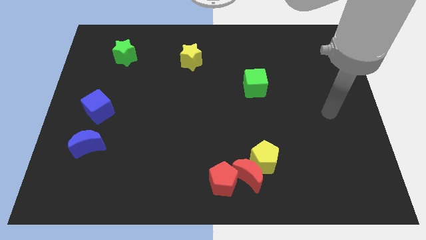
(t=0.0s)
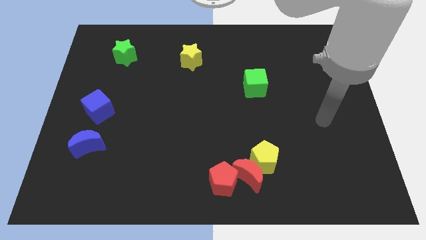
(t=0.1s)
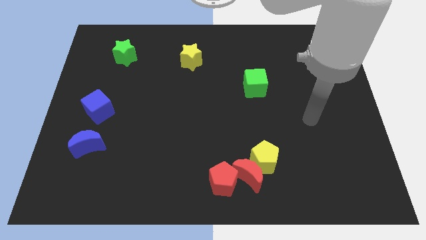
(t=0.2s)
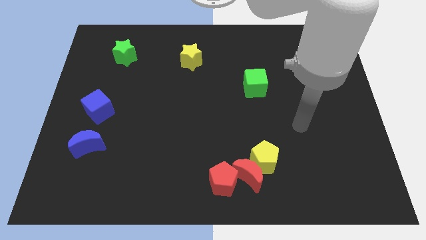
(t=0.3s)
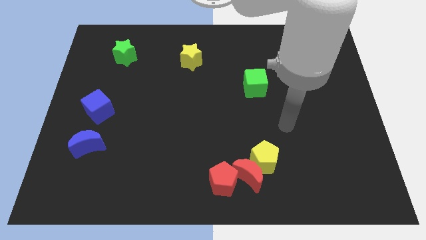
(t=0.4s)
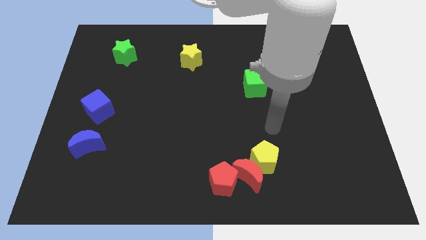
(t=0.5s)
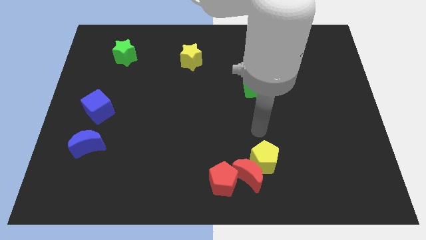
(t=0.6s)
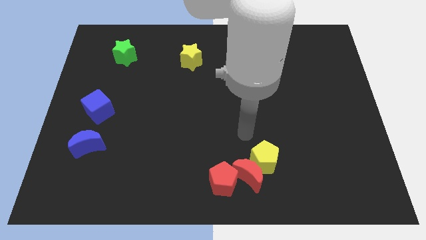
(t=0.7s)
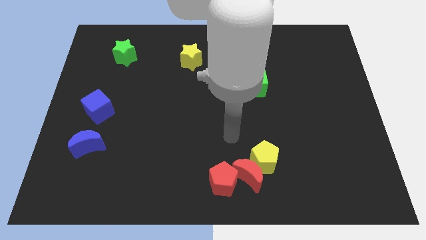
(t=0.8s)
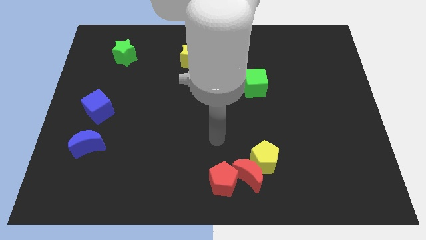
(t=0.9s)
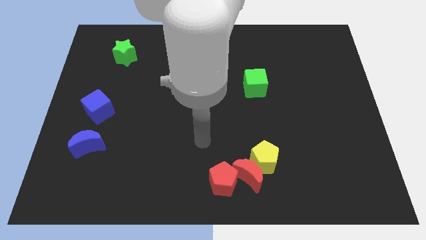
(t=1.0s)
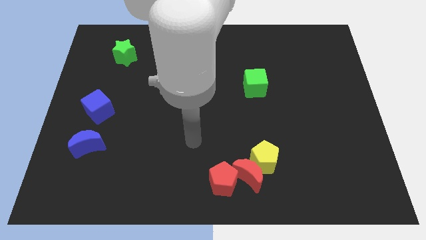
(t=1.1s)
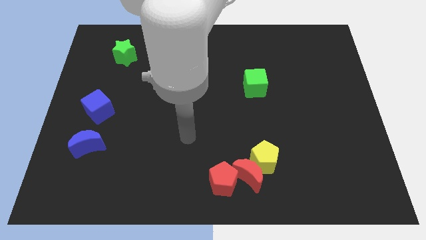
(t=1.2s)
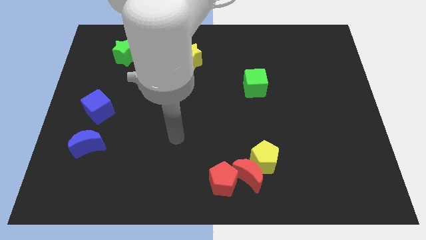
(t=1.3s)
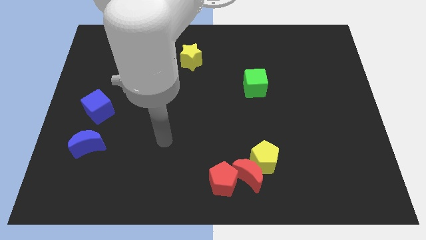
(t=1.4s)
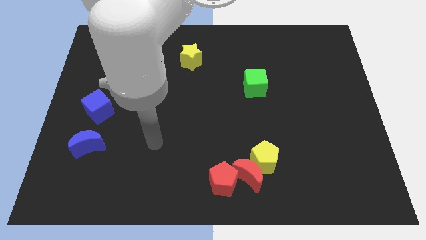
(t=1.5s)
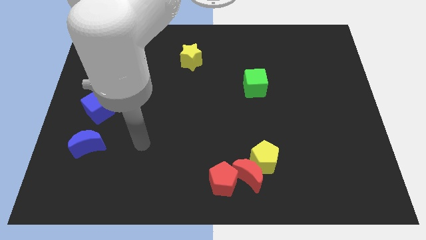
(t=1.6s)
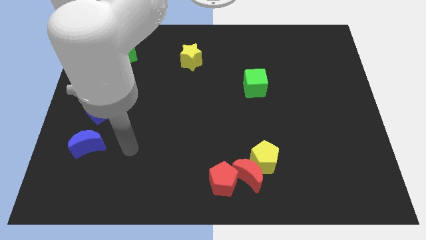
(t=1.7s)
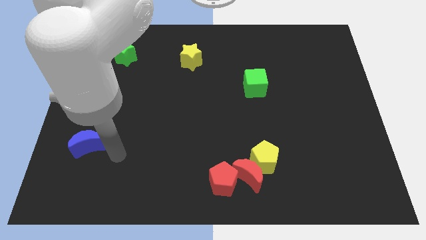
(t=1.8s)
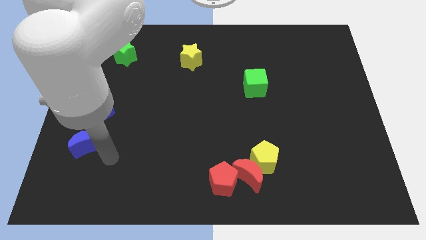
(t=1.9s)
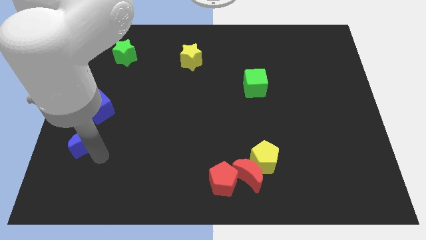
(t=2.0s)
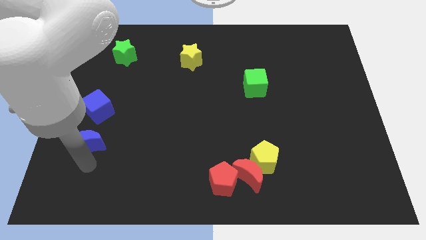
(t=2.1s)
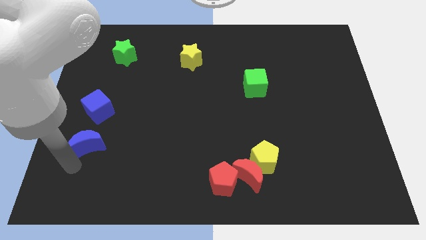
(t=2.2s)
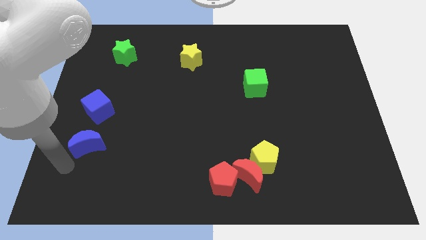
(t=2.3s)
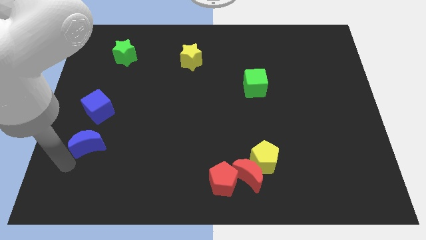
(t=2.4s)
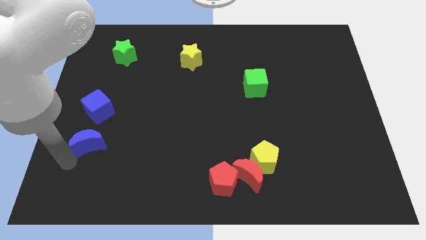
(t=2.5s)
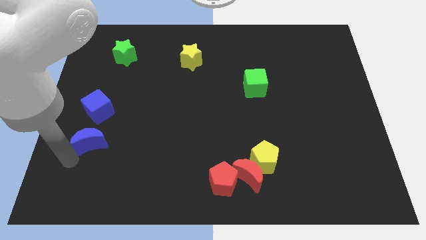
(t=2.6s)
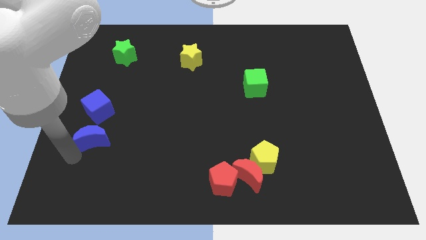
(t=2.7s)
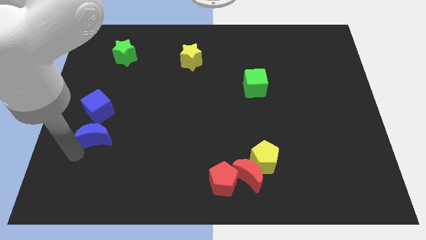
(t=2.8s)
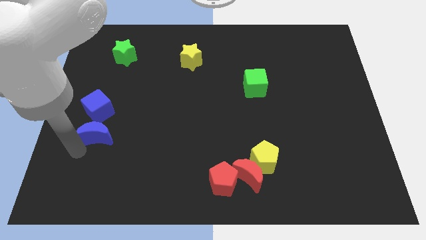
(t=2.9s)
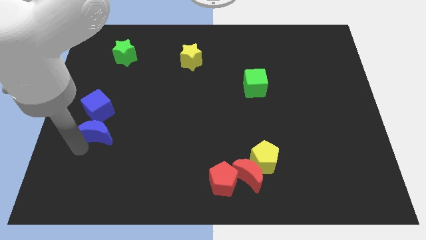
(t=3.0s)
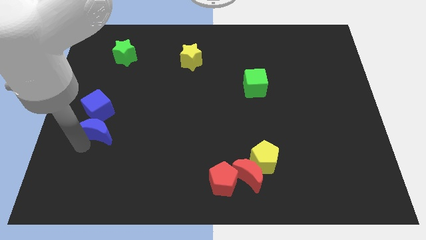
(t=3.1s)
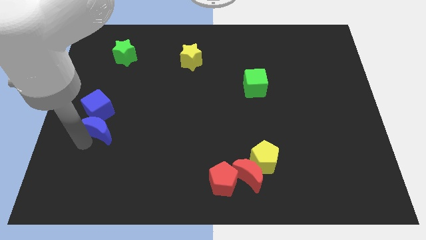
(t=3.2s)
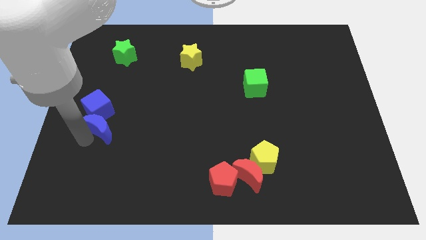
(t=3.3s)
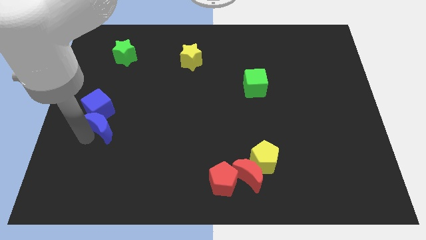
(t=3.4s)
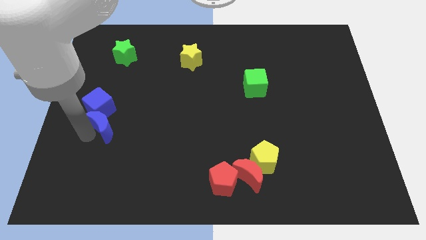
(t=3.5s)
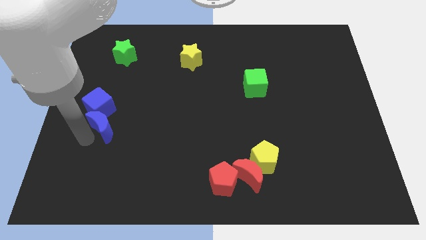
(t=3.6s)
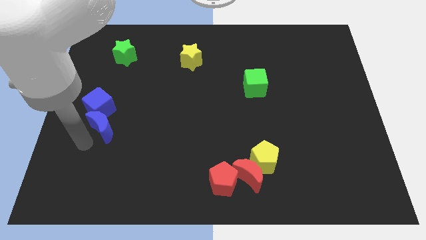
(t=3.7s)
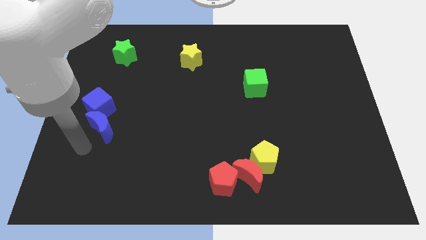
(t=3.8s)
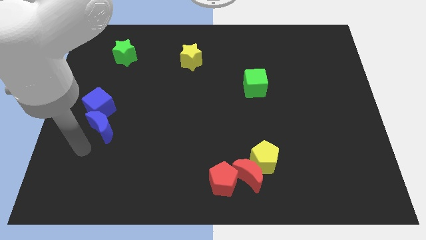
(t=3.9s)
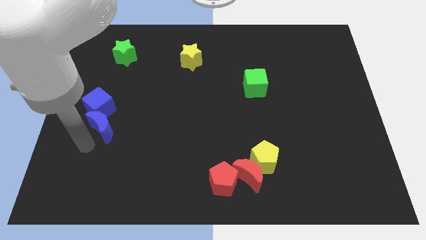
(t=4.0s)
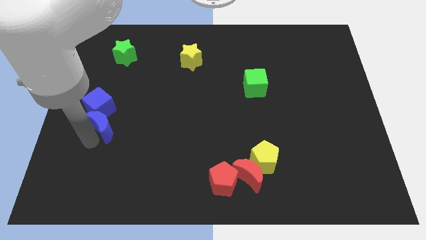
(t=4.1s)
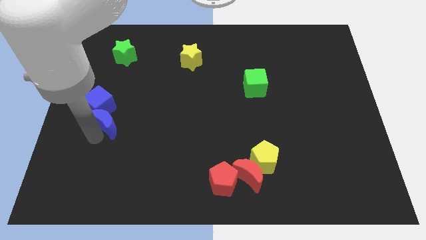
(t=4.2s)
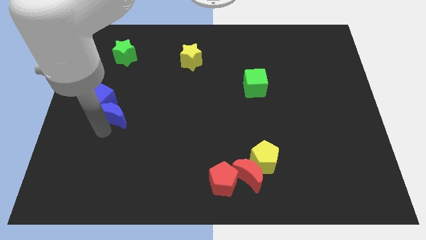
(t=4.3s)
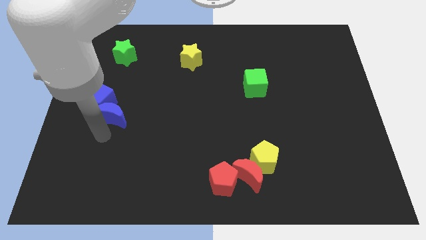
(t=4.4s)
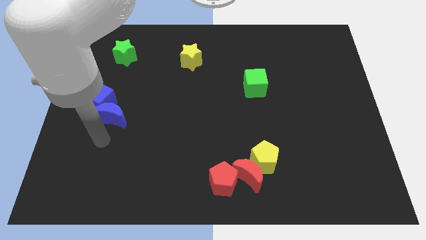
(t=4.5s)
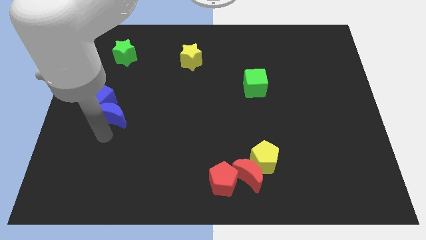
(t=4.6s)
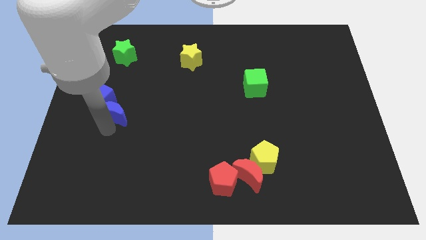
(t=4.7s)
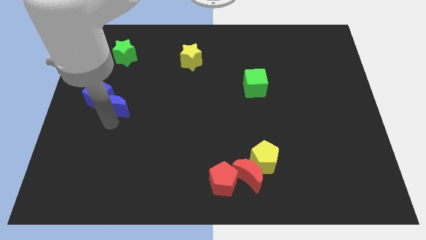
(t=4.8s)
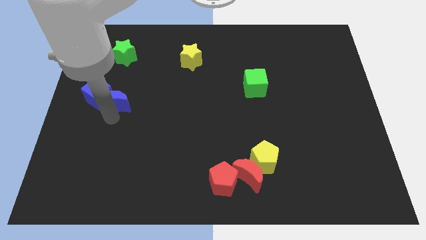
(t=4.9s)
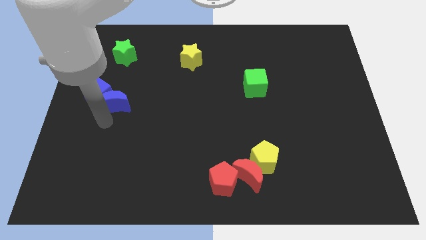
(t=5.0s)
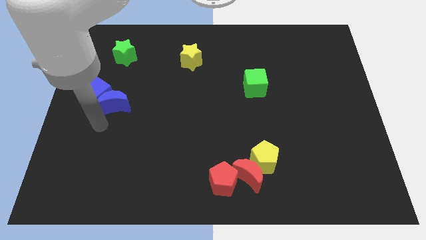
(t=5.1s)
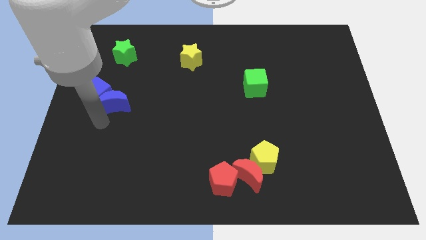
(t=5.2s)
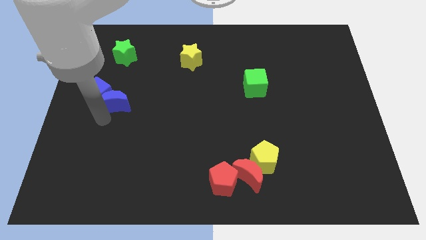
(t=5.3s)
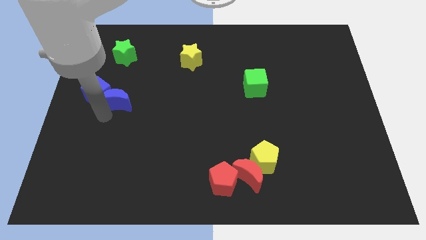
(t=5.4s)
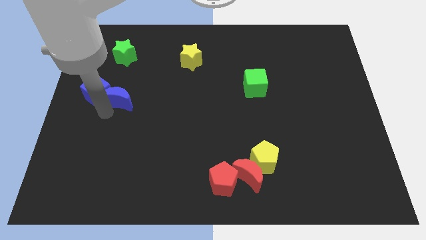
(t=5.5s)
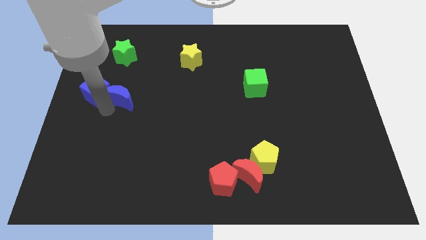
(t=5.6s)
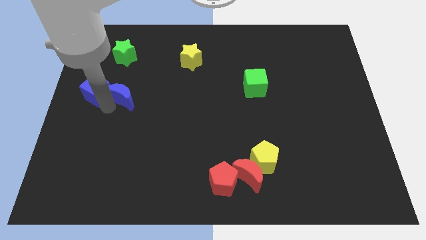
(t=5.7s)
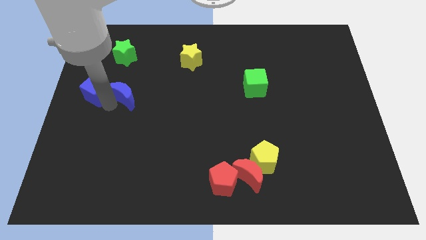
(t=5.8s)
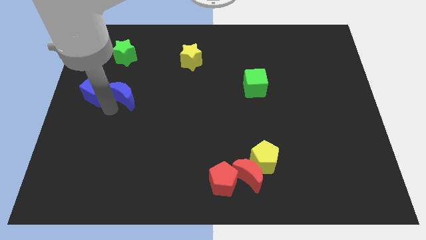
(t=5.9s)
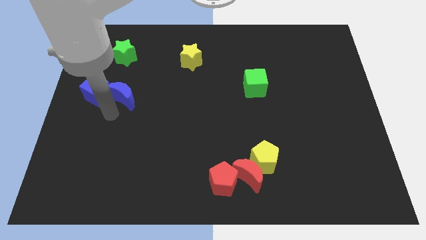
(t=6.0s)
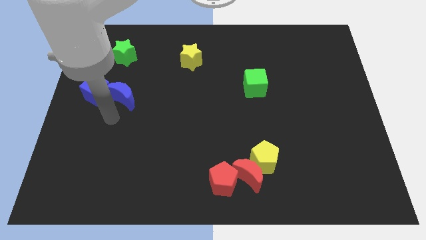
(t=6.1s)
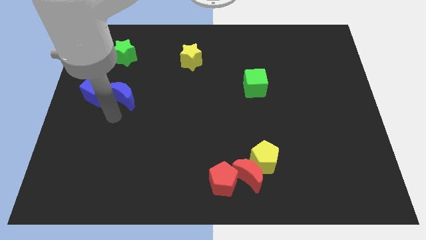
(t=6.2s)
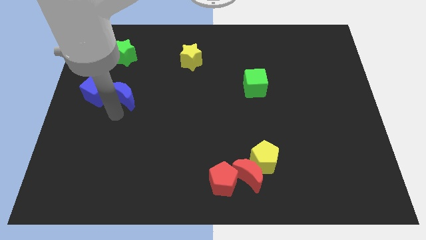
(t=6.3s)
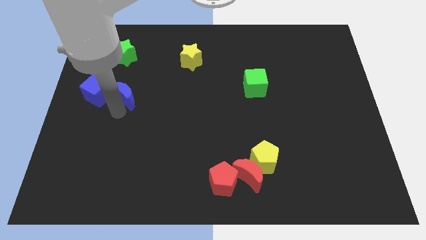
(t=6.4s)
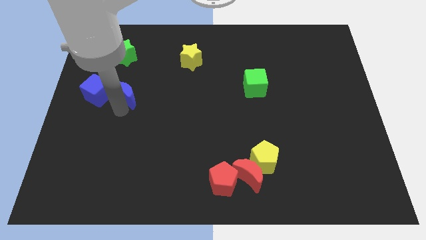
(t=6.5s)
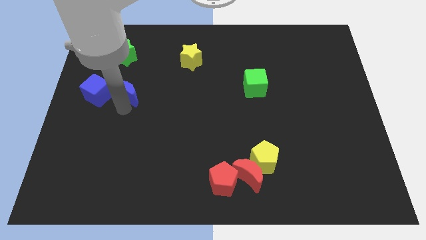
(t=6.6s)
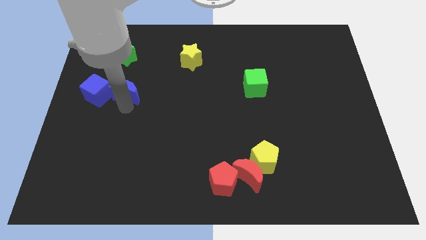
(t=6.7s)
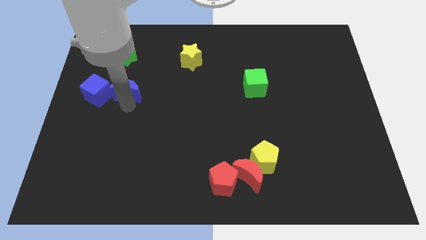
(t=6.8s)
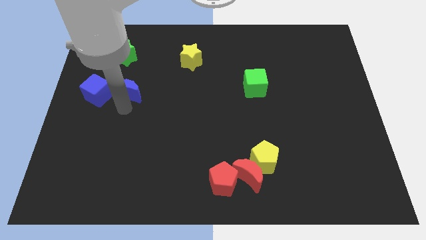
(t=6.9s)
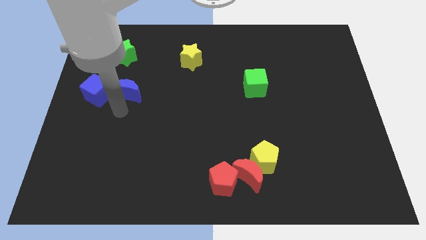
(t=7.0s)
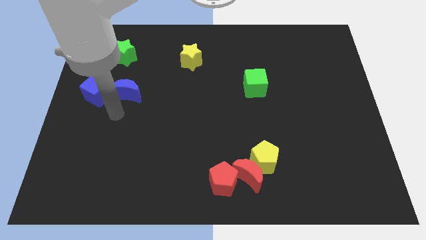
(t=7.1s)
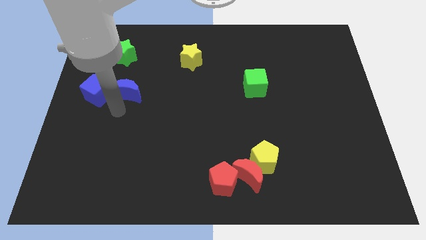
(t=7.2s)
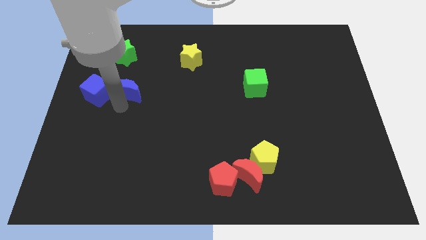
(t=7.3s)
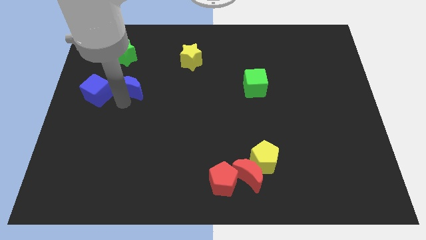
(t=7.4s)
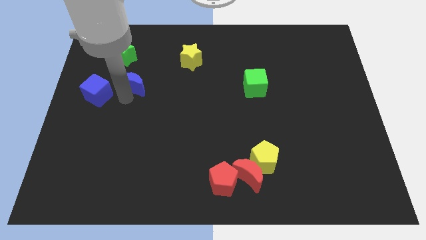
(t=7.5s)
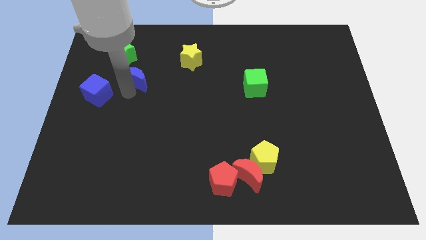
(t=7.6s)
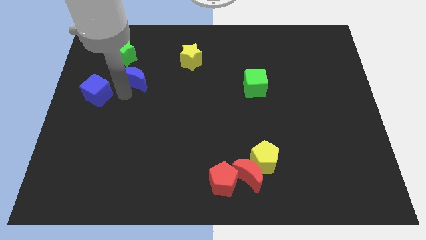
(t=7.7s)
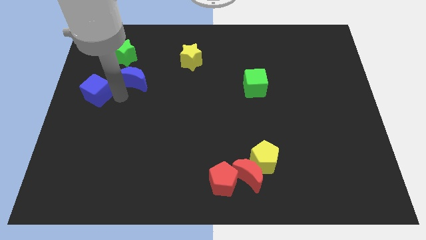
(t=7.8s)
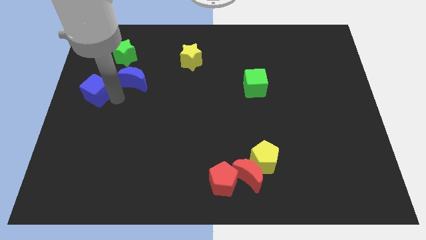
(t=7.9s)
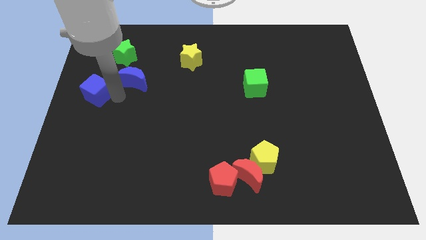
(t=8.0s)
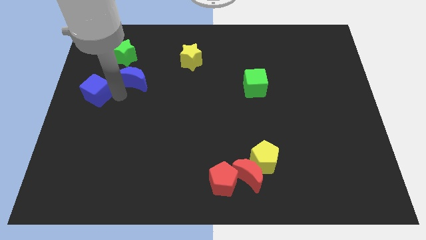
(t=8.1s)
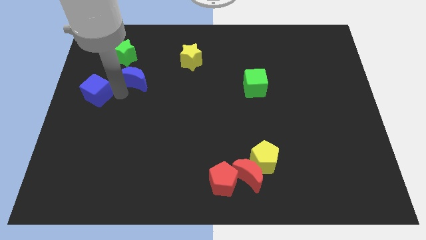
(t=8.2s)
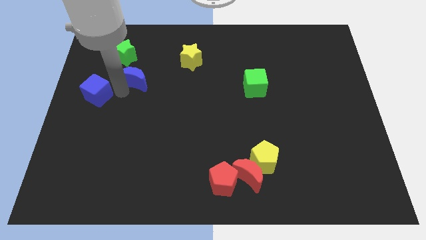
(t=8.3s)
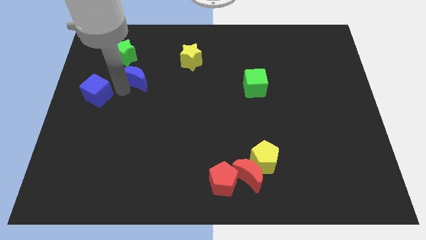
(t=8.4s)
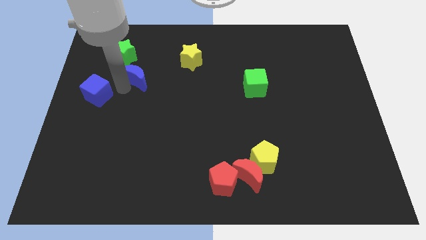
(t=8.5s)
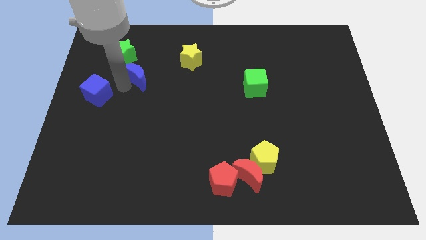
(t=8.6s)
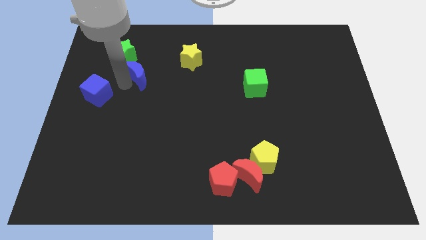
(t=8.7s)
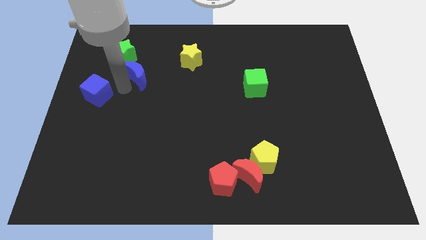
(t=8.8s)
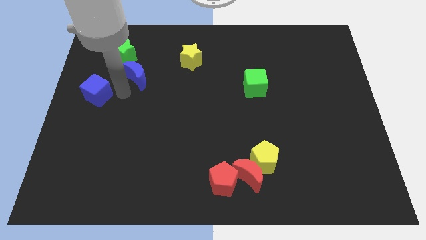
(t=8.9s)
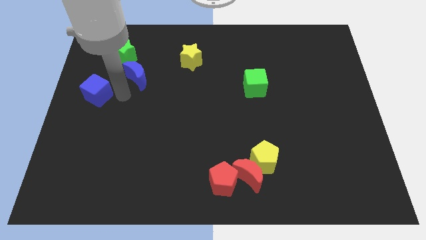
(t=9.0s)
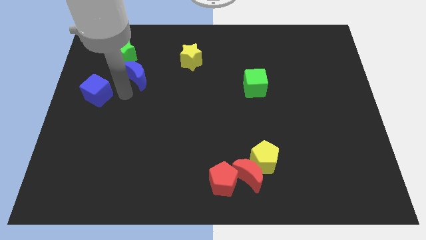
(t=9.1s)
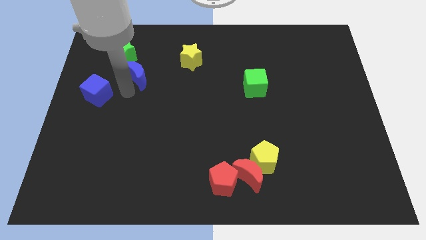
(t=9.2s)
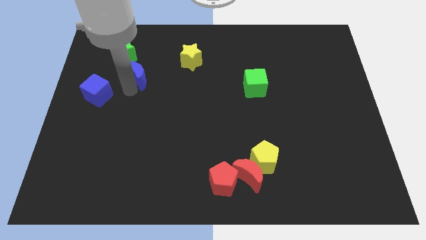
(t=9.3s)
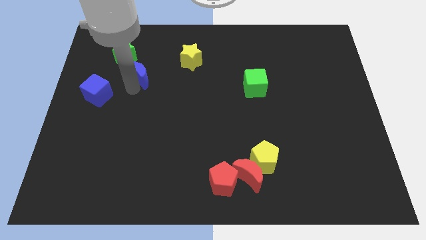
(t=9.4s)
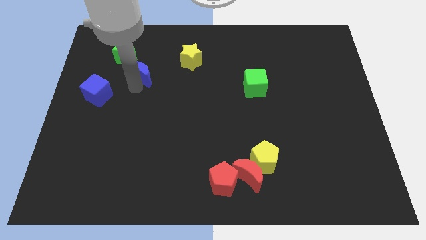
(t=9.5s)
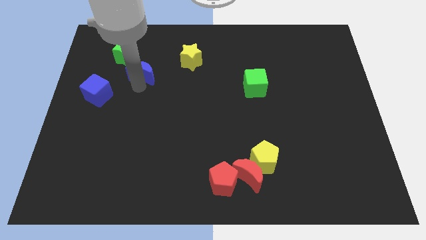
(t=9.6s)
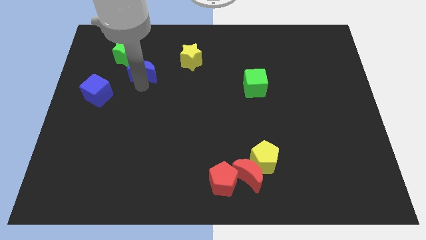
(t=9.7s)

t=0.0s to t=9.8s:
put the blue moon to the left side of the yellow star
